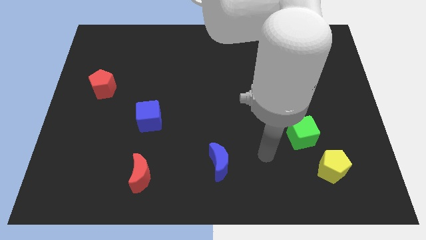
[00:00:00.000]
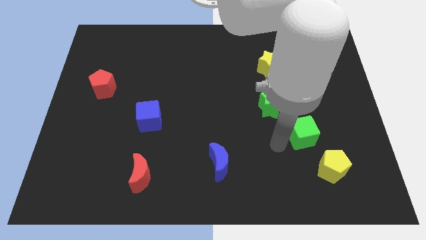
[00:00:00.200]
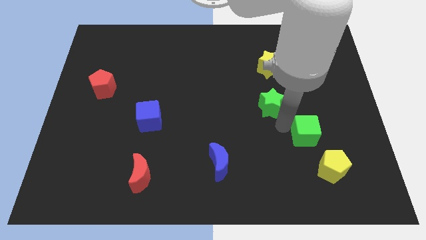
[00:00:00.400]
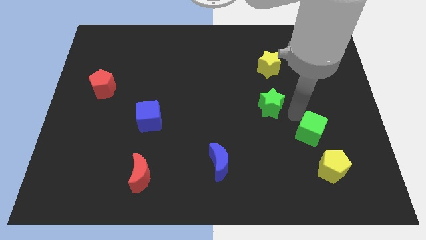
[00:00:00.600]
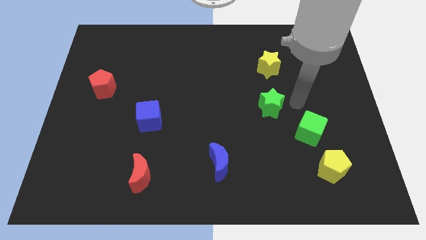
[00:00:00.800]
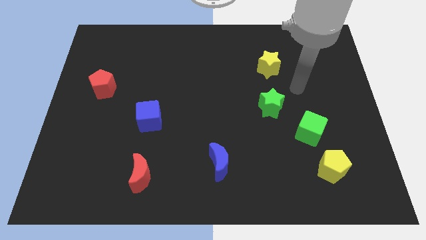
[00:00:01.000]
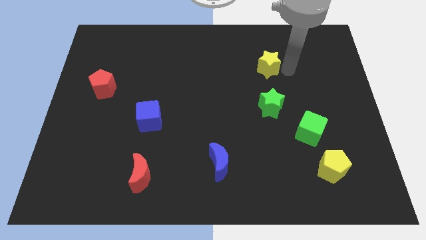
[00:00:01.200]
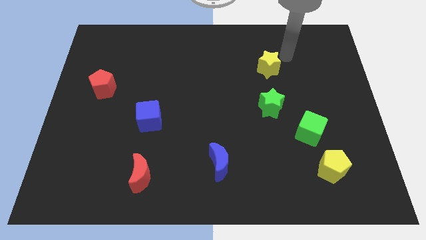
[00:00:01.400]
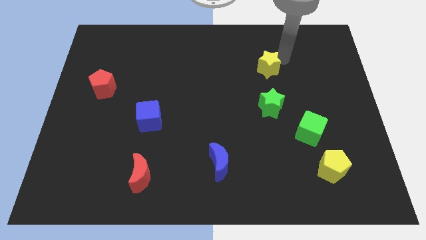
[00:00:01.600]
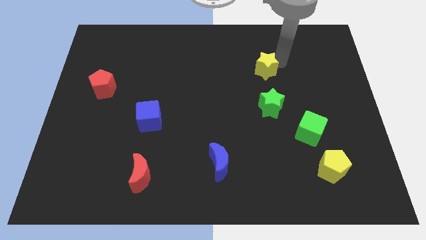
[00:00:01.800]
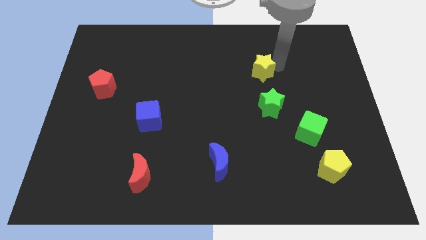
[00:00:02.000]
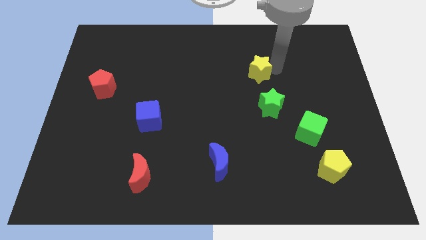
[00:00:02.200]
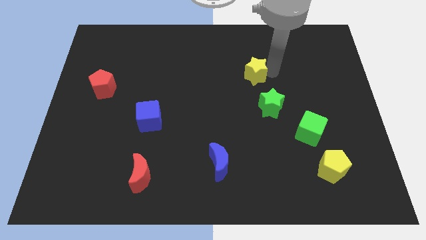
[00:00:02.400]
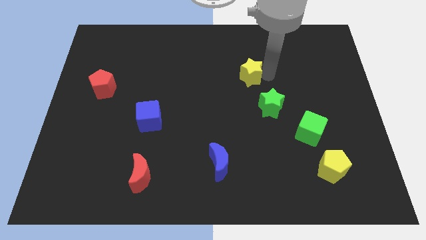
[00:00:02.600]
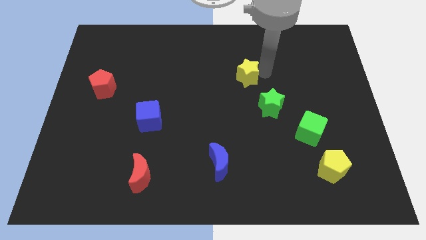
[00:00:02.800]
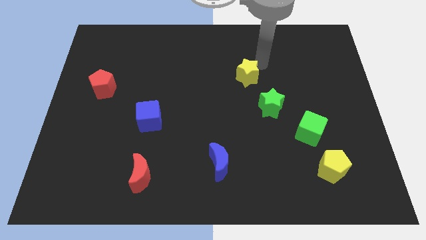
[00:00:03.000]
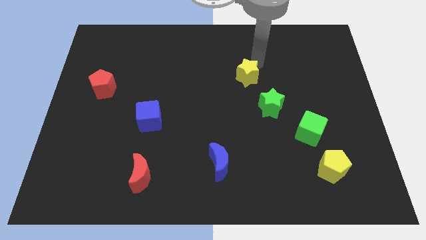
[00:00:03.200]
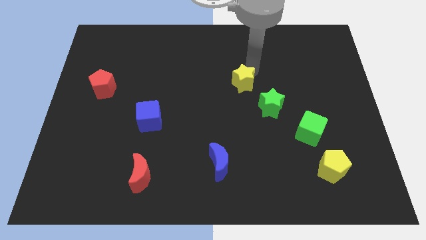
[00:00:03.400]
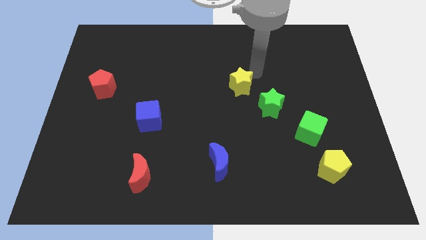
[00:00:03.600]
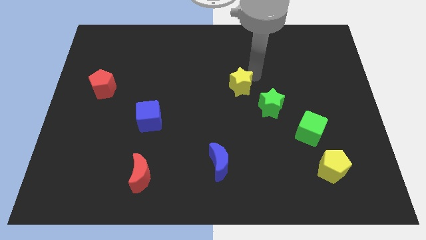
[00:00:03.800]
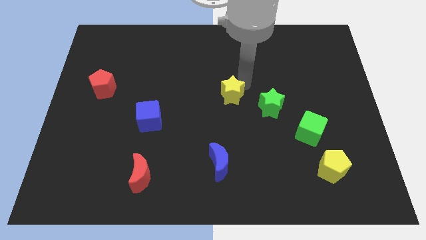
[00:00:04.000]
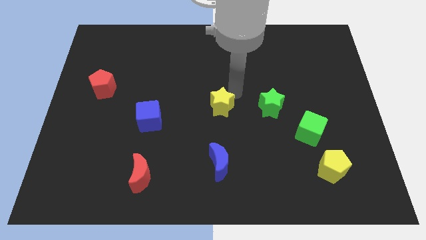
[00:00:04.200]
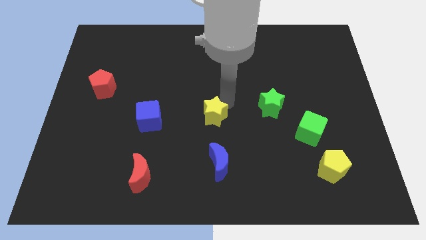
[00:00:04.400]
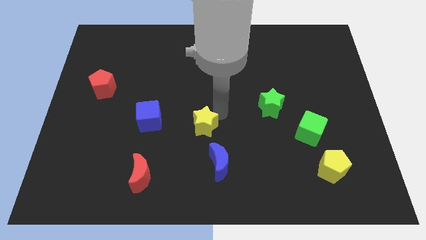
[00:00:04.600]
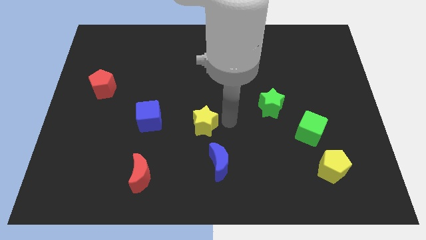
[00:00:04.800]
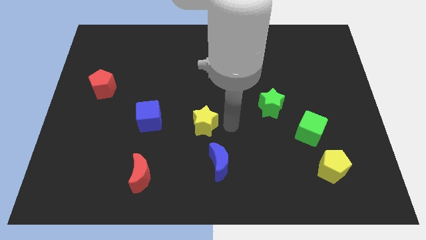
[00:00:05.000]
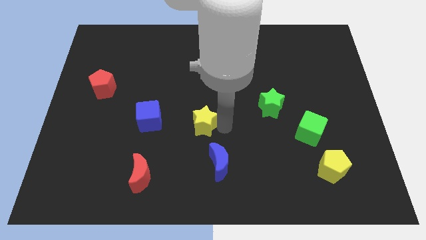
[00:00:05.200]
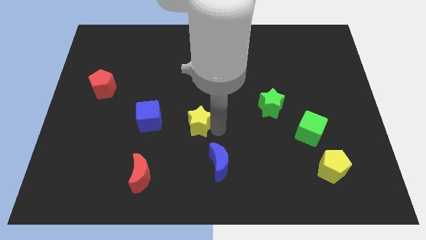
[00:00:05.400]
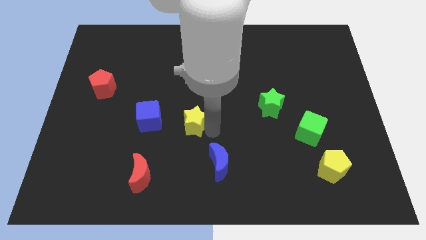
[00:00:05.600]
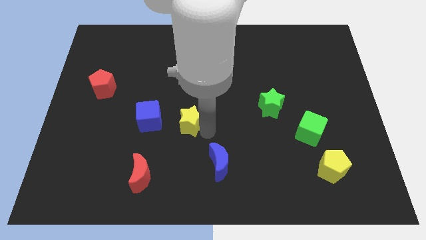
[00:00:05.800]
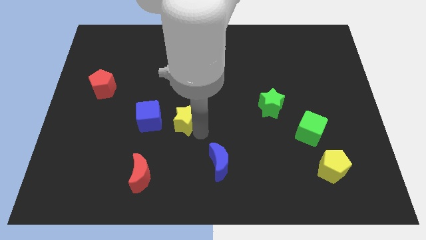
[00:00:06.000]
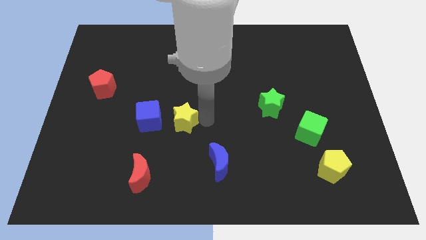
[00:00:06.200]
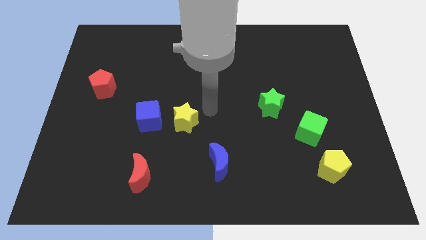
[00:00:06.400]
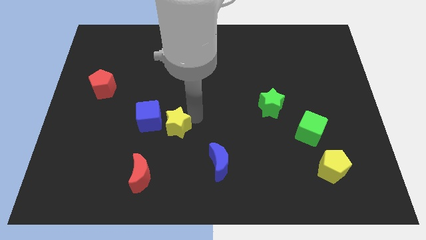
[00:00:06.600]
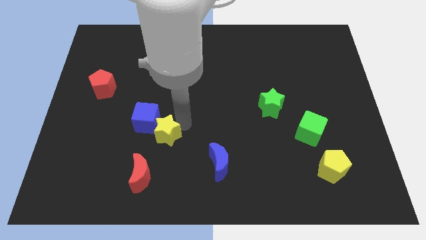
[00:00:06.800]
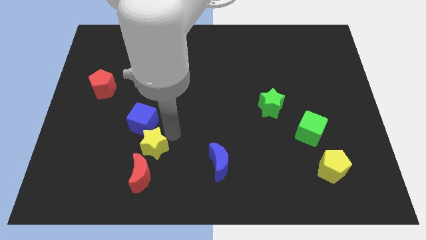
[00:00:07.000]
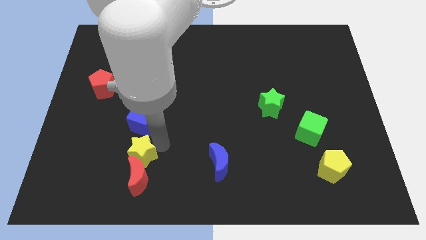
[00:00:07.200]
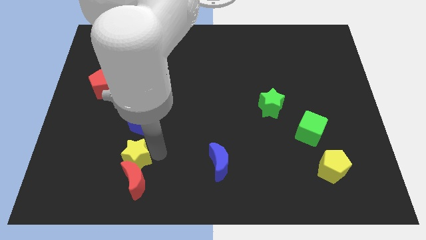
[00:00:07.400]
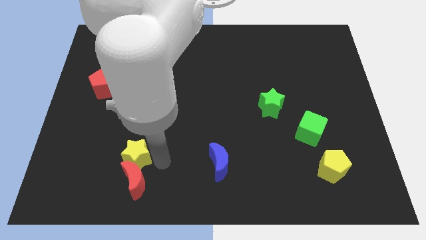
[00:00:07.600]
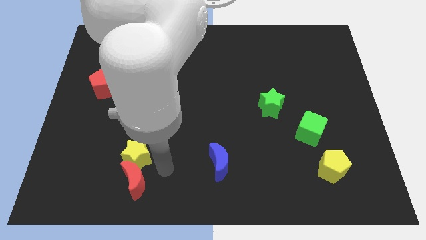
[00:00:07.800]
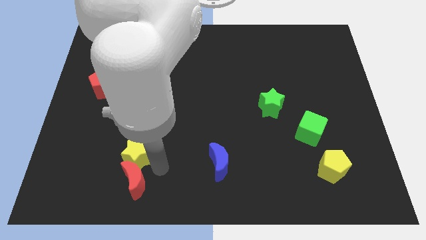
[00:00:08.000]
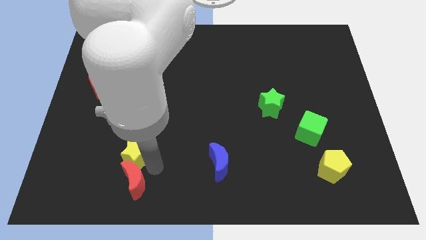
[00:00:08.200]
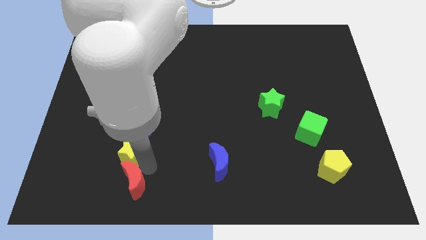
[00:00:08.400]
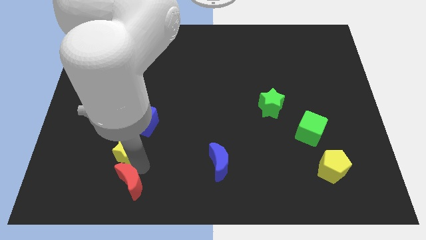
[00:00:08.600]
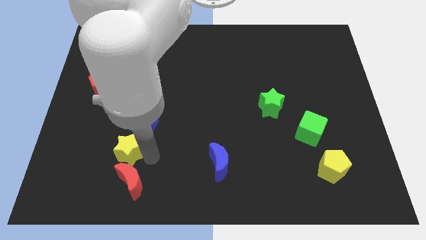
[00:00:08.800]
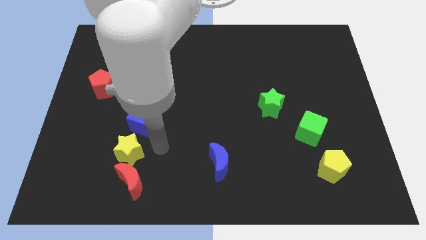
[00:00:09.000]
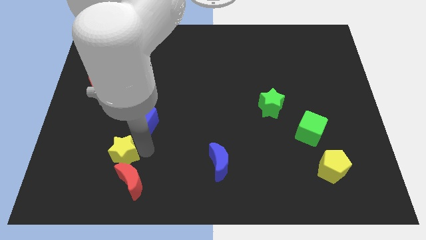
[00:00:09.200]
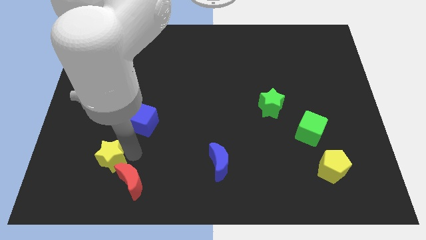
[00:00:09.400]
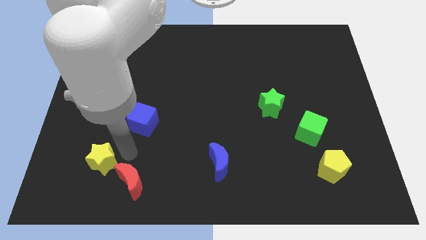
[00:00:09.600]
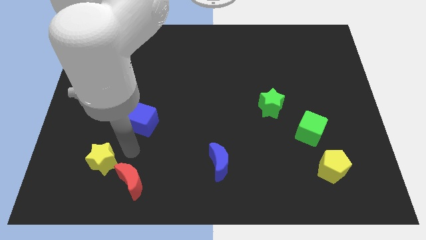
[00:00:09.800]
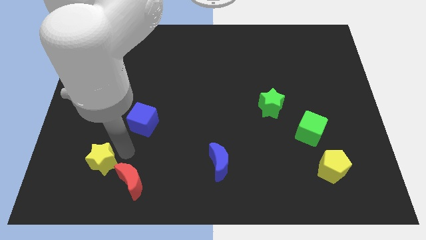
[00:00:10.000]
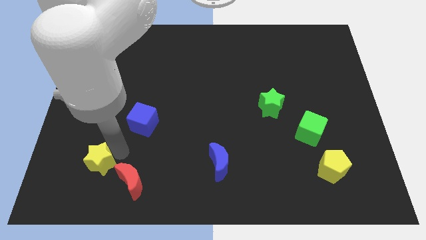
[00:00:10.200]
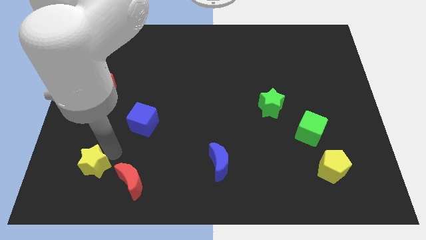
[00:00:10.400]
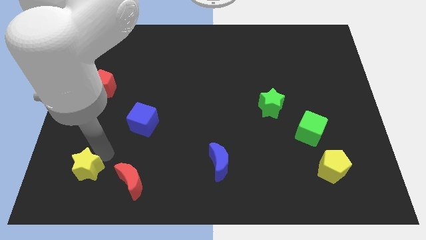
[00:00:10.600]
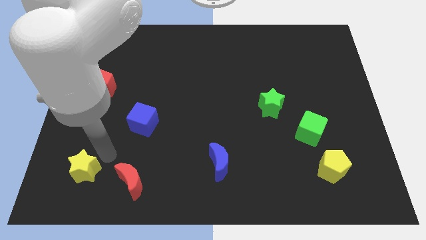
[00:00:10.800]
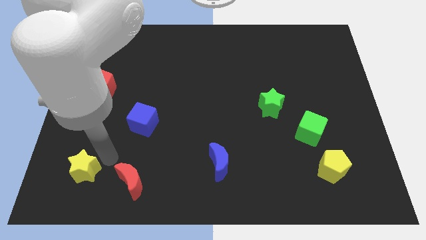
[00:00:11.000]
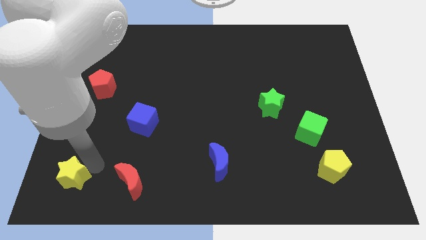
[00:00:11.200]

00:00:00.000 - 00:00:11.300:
push the yellow star to the bottom left

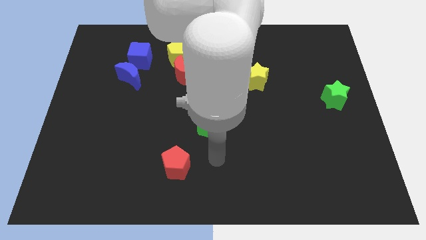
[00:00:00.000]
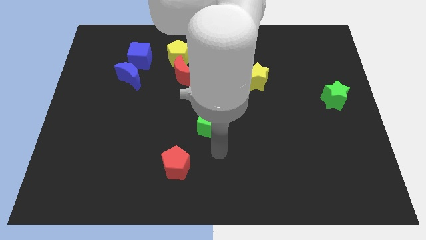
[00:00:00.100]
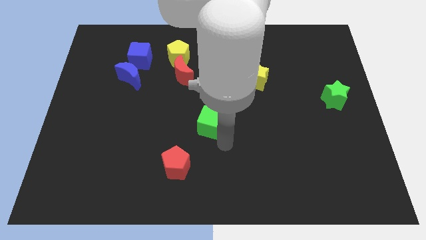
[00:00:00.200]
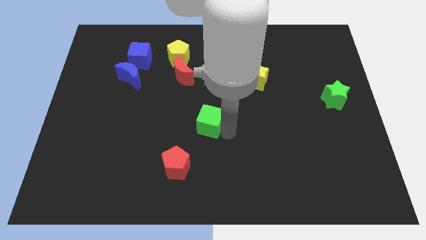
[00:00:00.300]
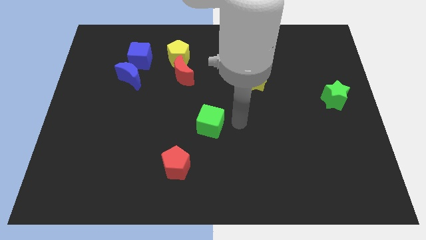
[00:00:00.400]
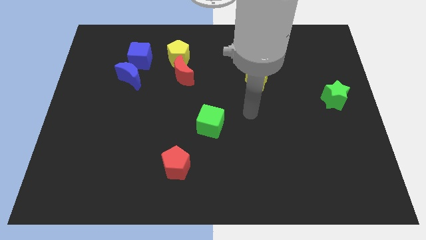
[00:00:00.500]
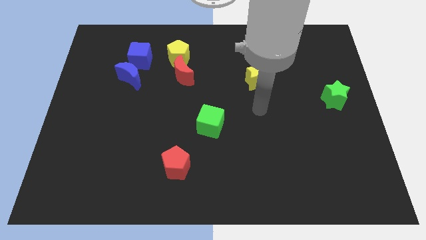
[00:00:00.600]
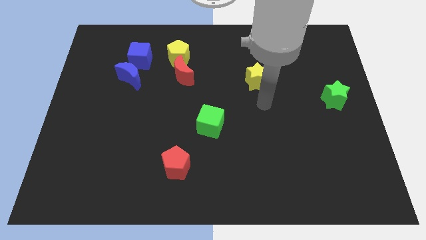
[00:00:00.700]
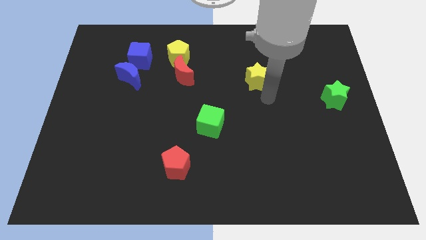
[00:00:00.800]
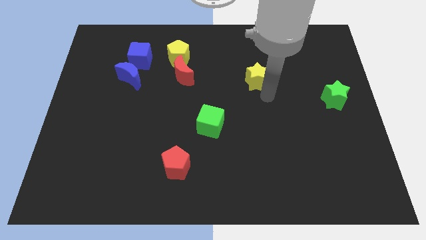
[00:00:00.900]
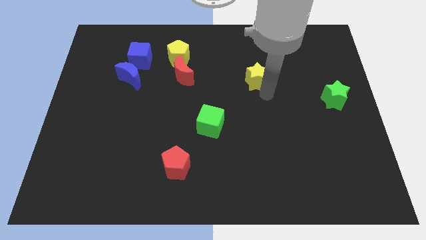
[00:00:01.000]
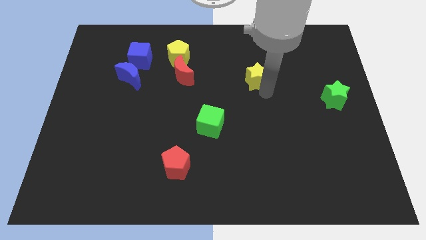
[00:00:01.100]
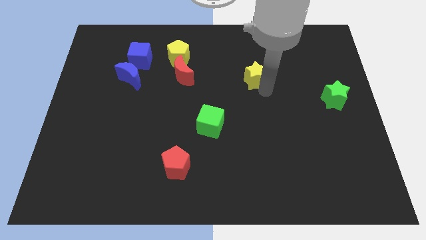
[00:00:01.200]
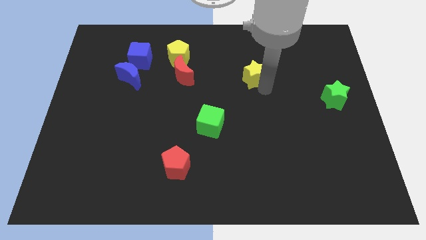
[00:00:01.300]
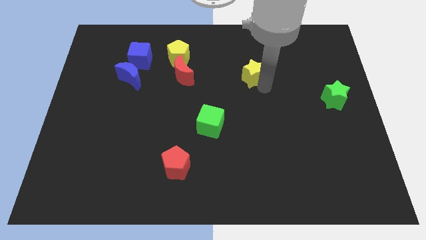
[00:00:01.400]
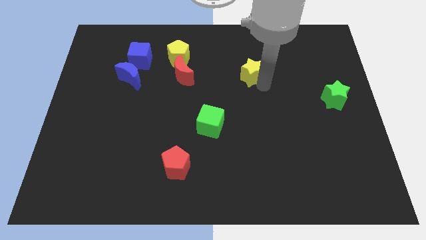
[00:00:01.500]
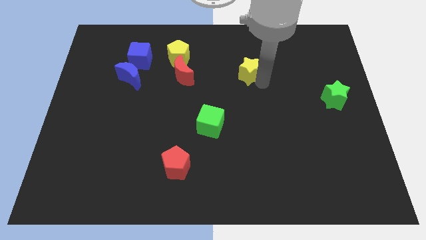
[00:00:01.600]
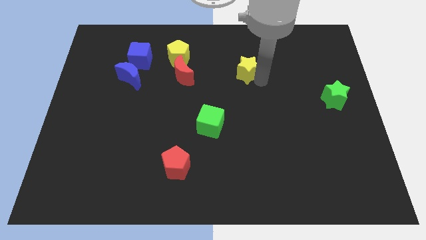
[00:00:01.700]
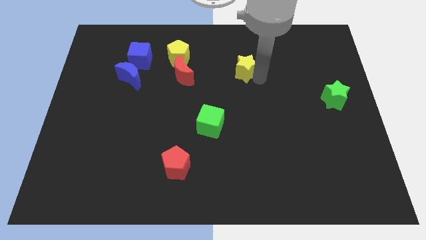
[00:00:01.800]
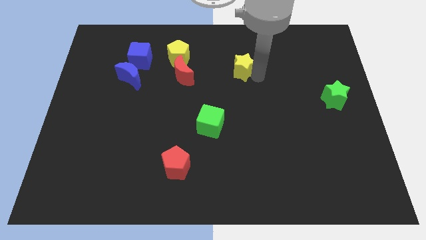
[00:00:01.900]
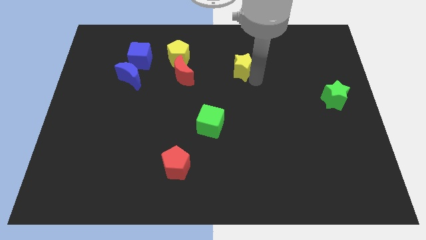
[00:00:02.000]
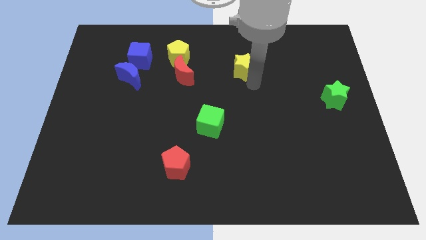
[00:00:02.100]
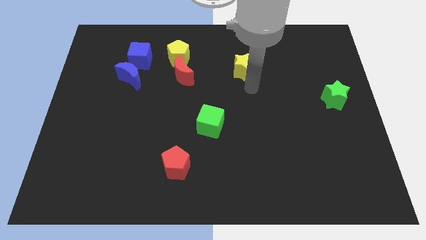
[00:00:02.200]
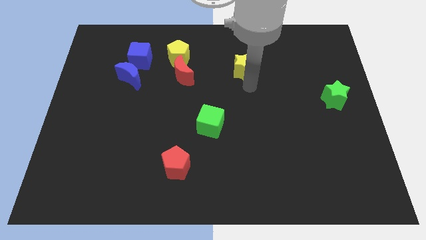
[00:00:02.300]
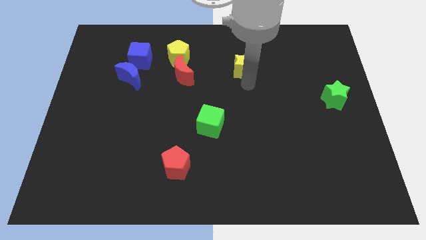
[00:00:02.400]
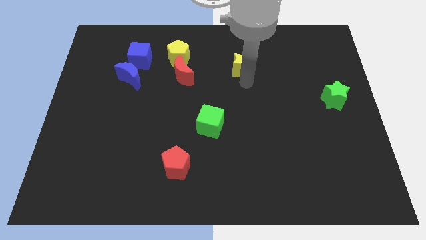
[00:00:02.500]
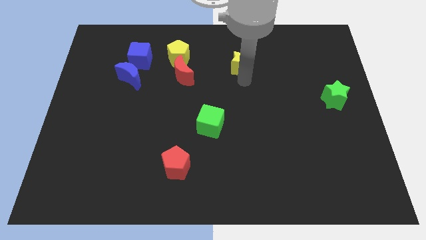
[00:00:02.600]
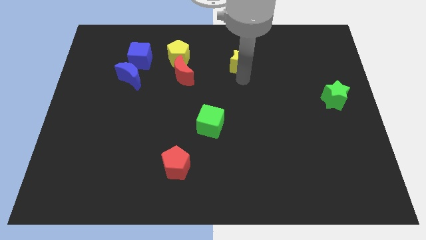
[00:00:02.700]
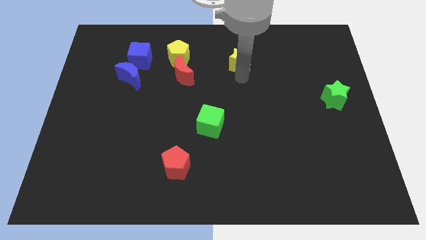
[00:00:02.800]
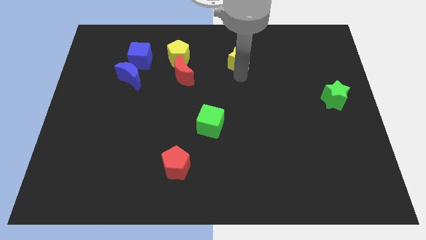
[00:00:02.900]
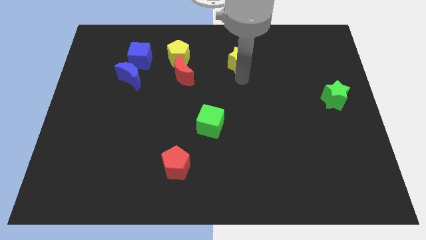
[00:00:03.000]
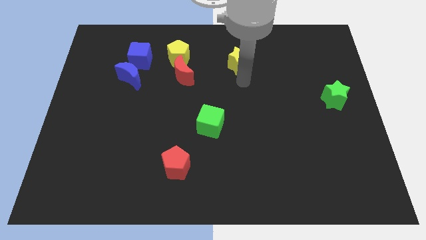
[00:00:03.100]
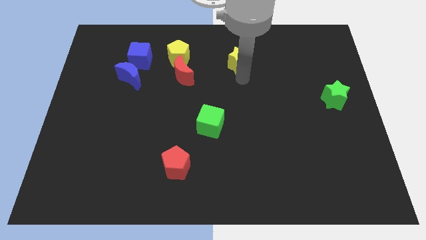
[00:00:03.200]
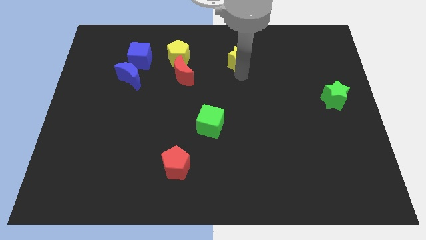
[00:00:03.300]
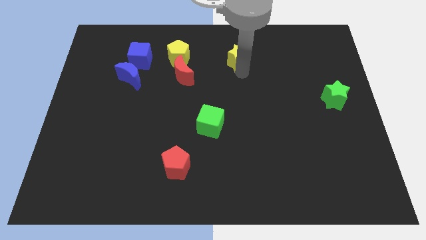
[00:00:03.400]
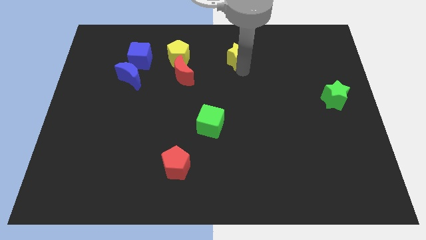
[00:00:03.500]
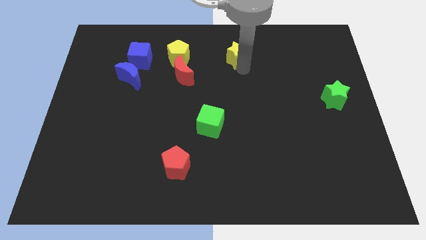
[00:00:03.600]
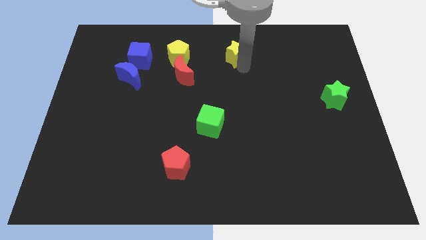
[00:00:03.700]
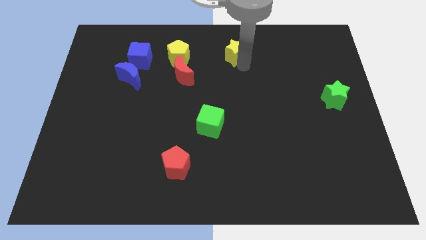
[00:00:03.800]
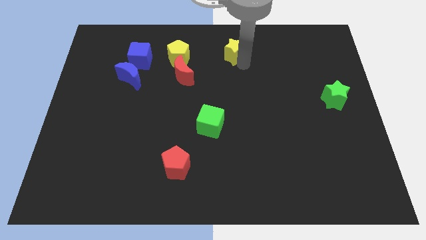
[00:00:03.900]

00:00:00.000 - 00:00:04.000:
push the yellow star to the top side
